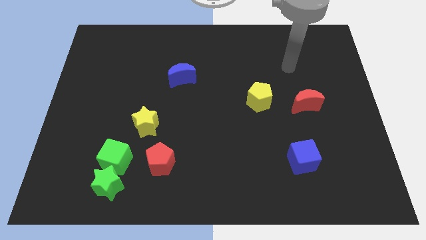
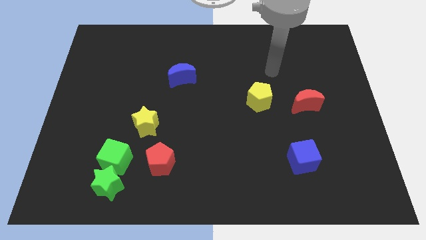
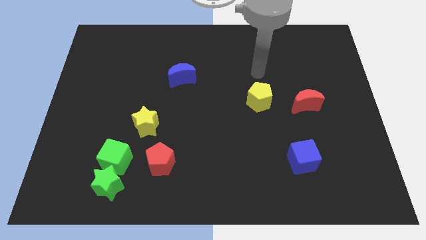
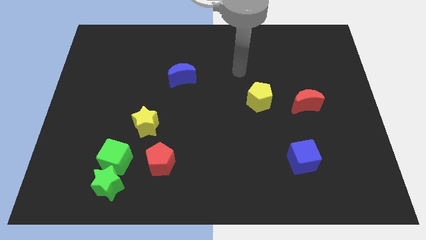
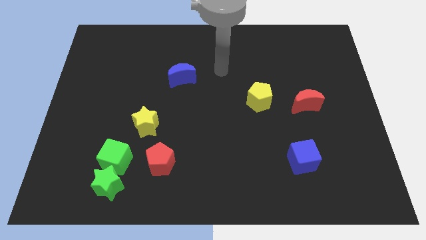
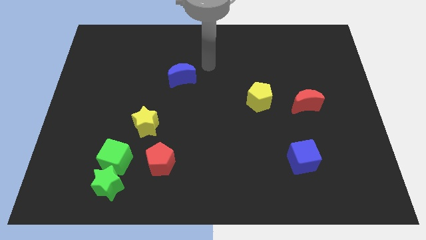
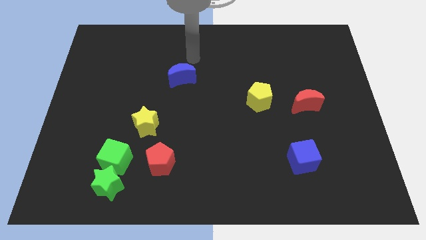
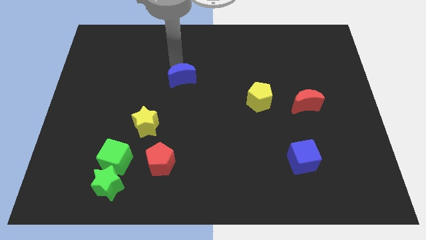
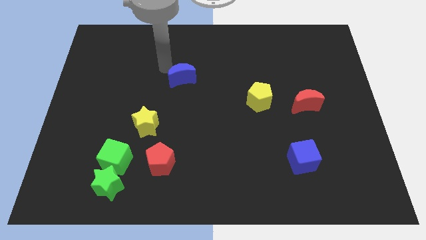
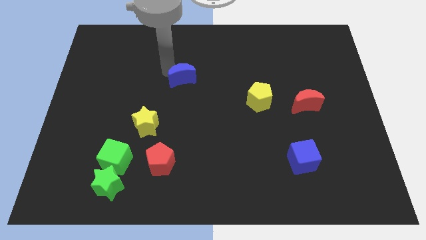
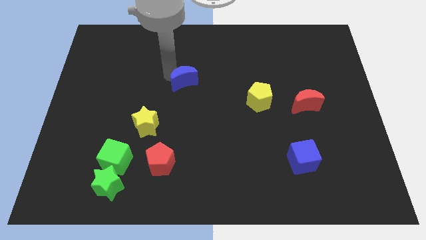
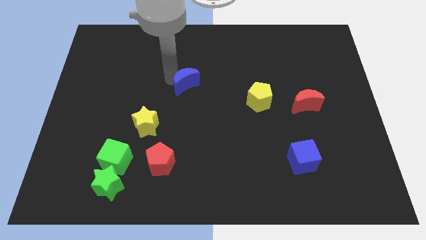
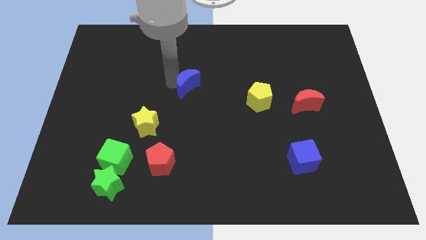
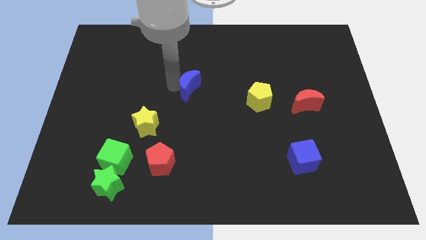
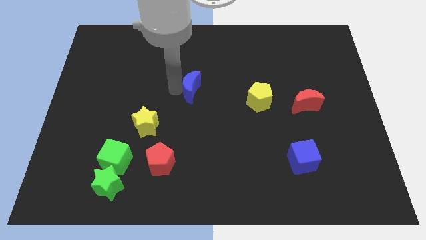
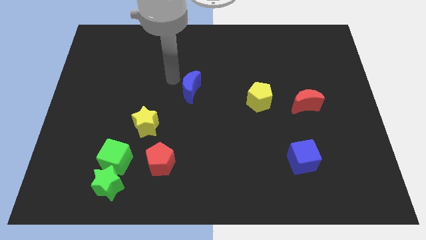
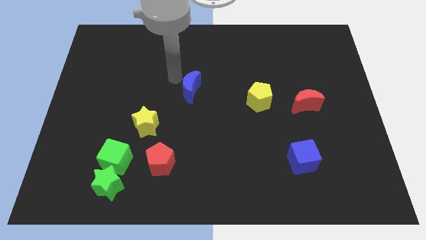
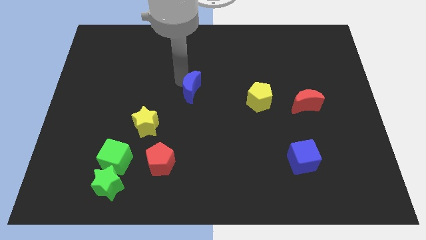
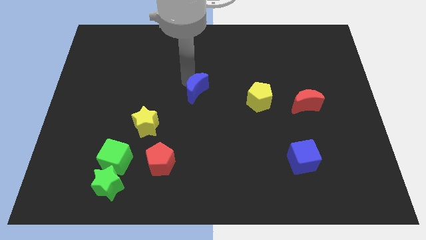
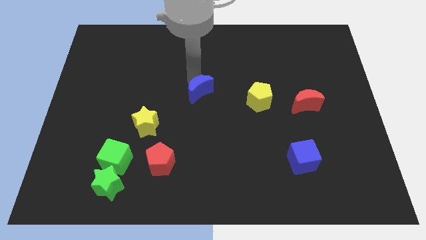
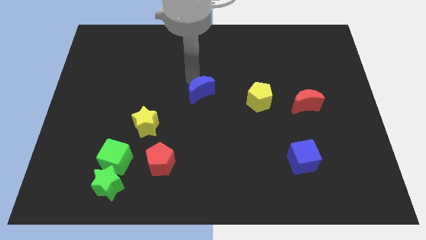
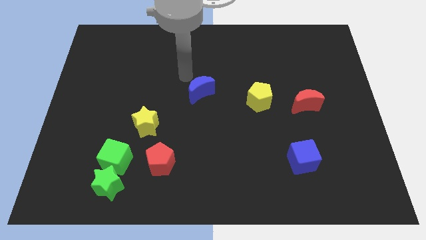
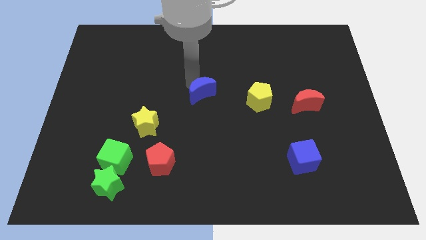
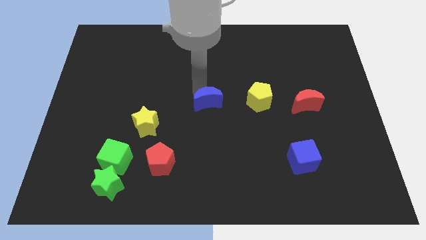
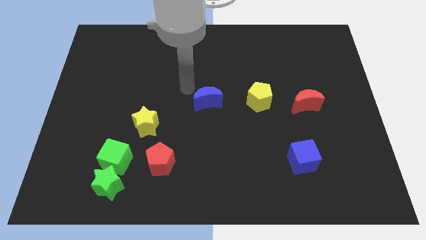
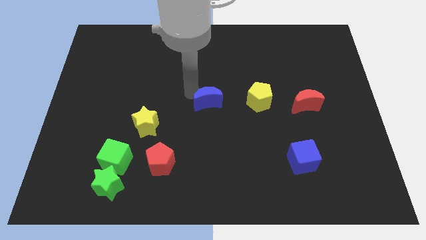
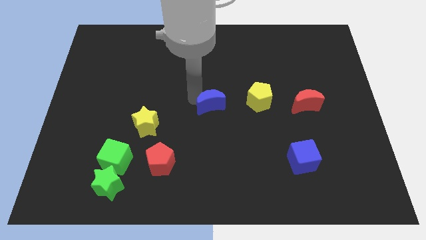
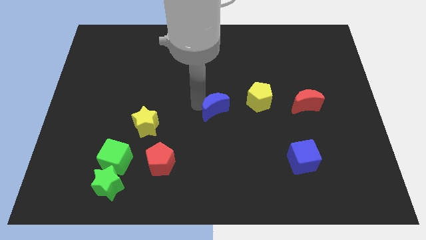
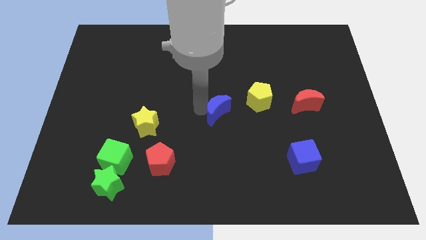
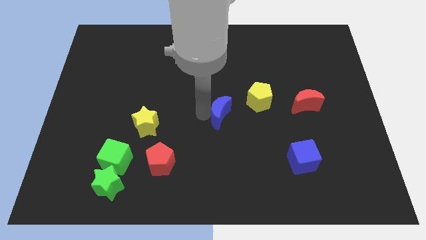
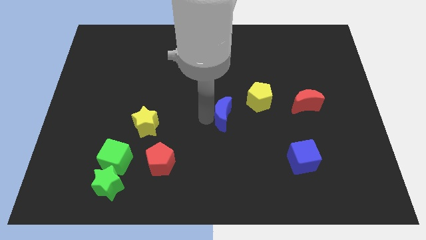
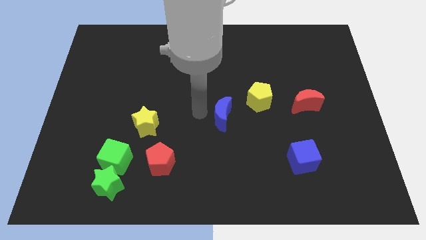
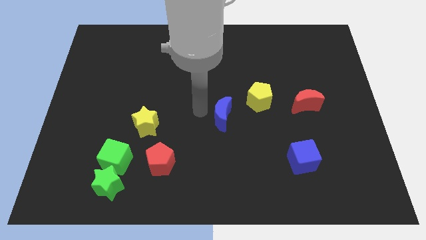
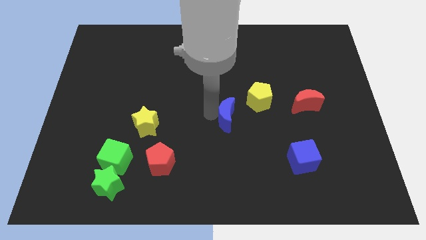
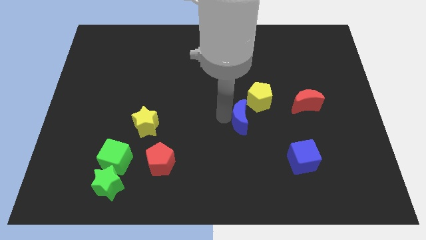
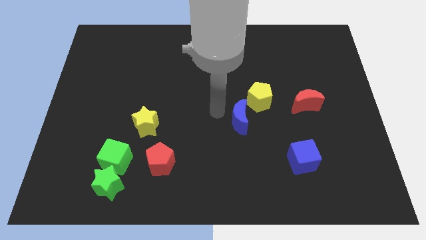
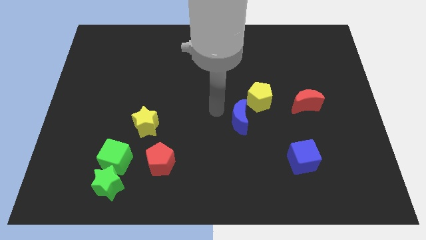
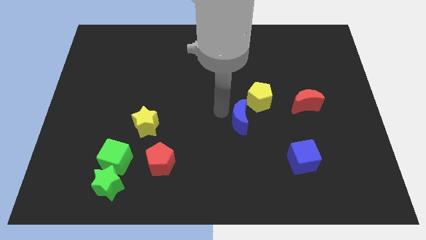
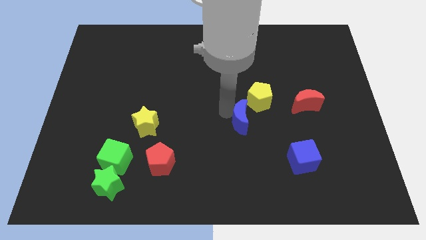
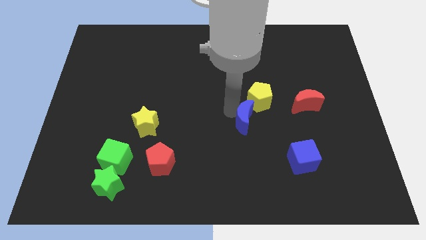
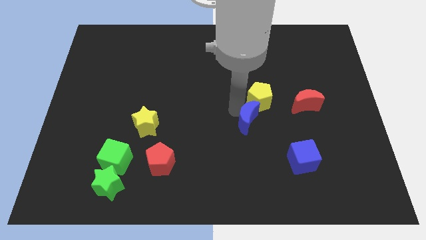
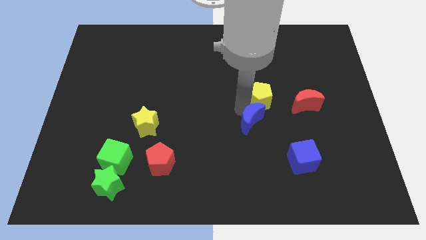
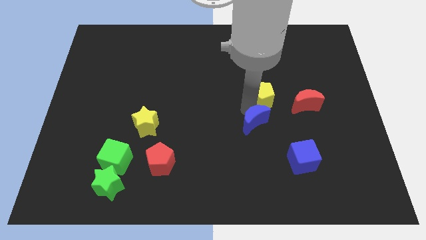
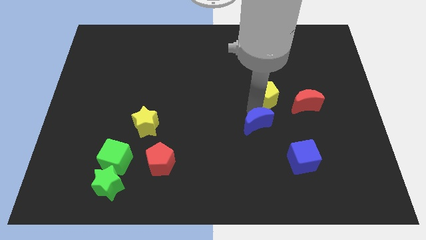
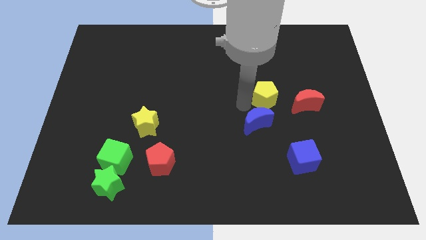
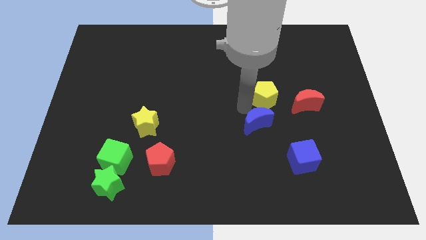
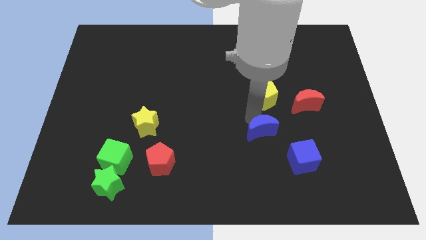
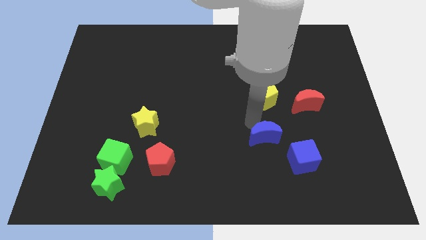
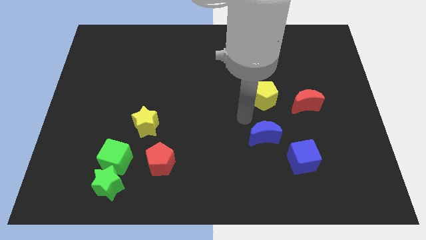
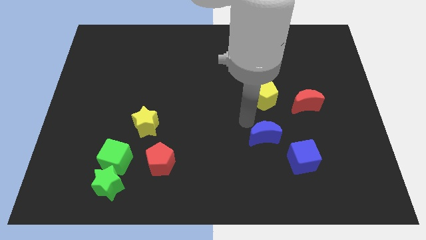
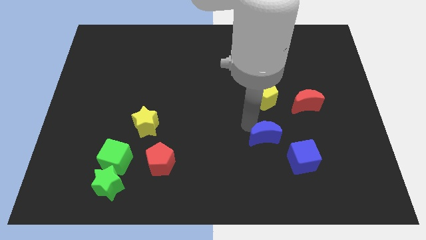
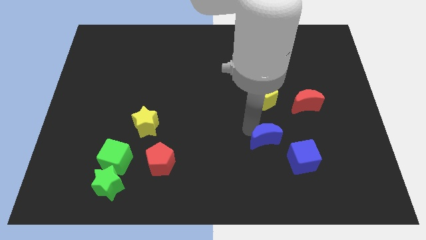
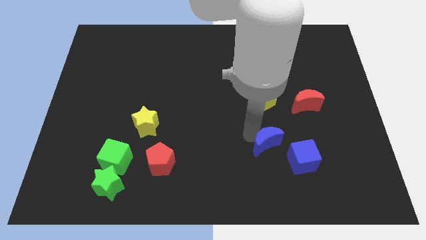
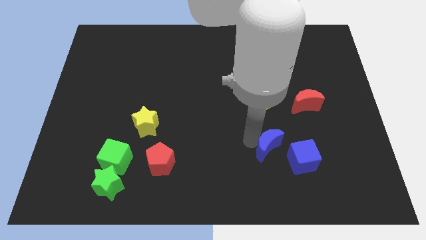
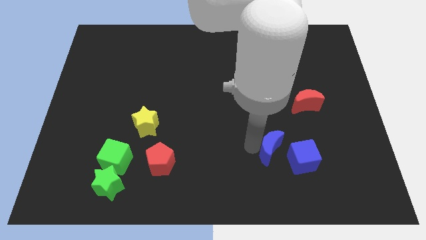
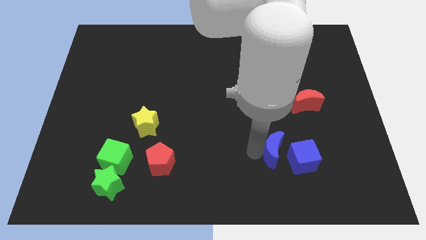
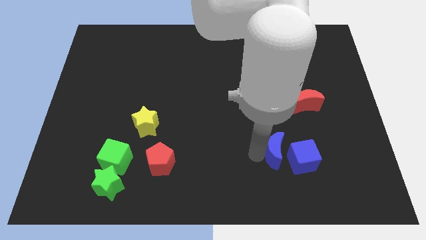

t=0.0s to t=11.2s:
push the blue moon next to the blue cube

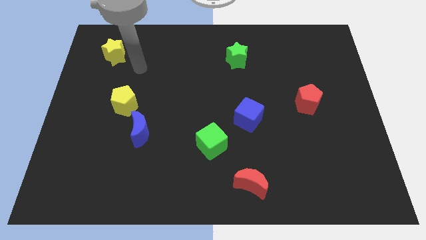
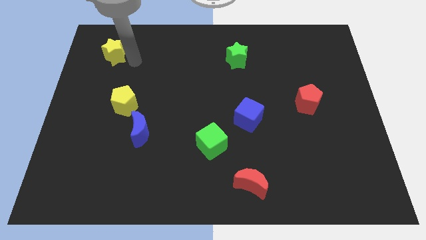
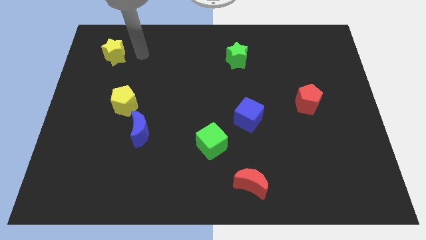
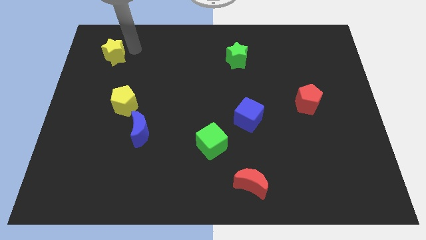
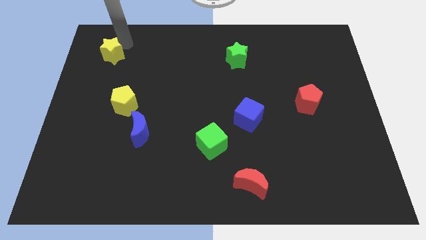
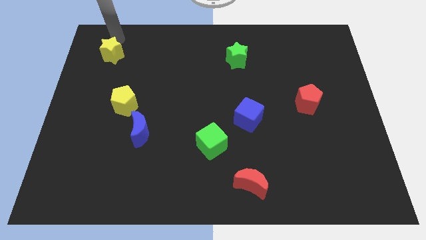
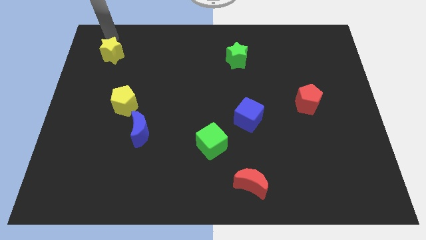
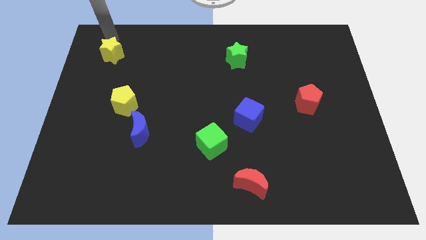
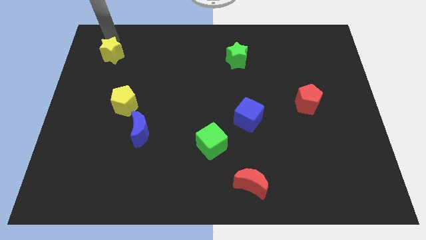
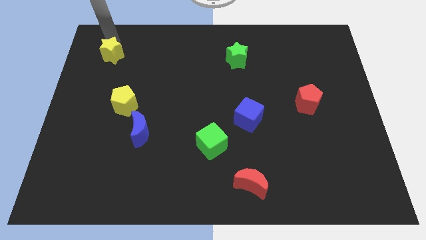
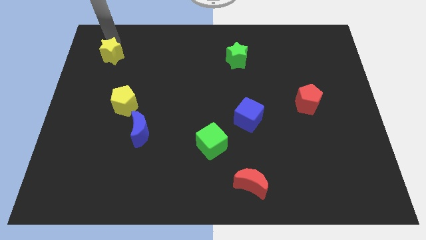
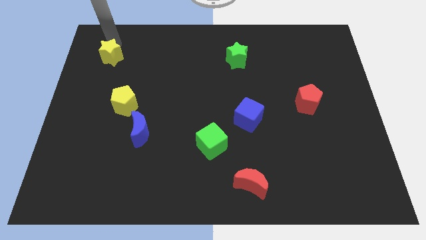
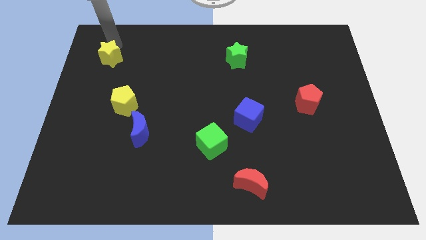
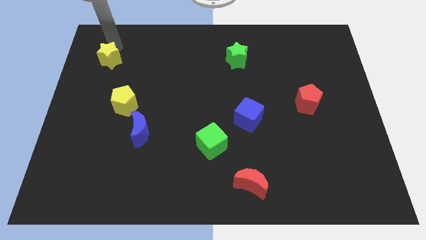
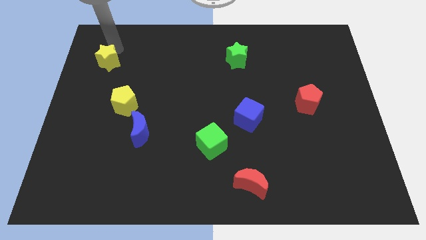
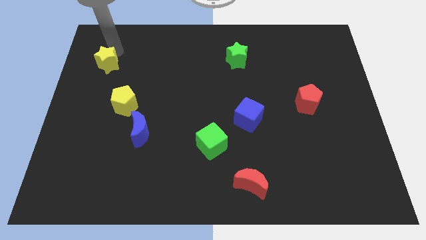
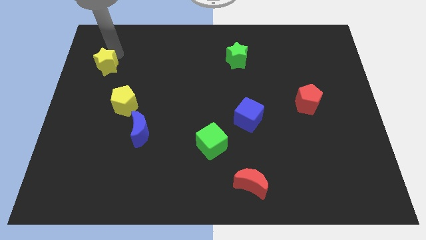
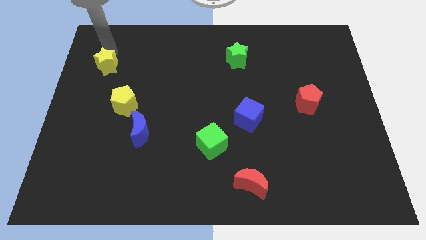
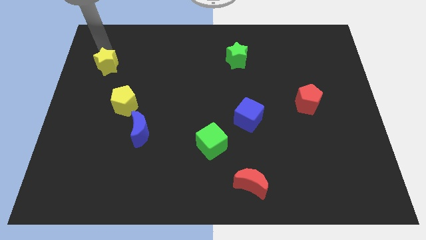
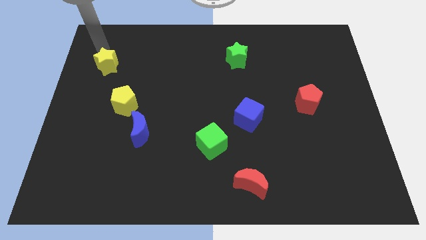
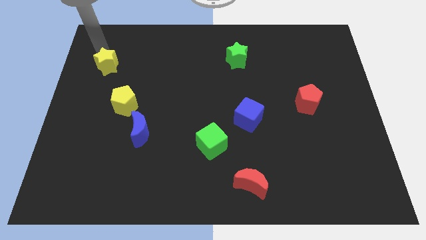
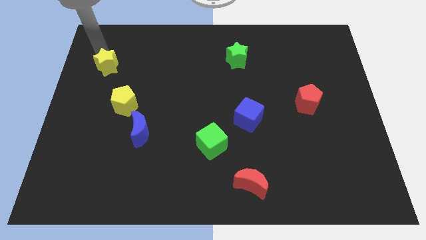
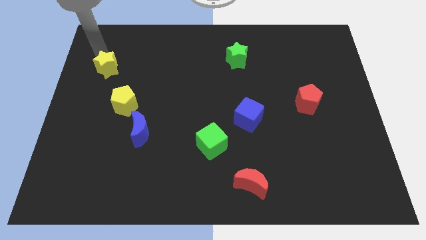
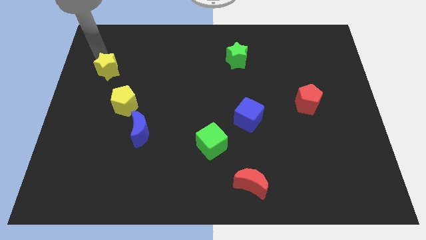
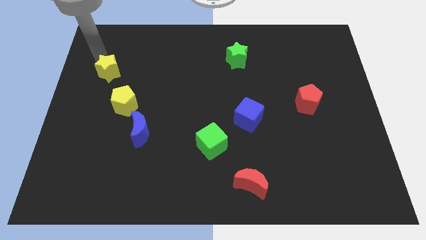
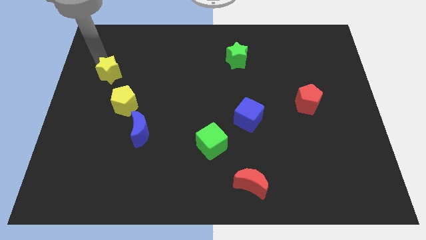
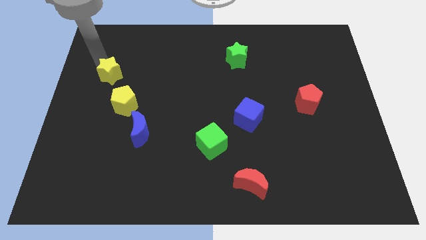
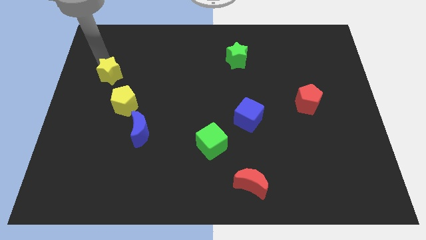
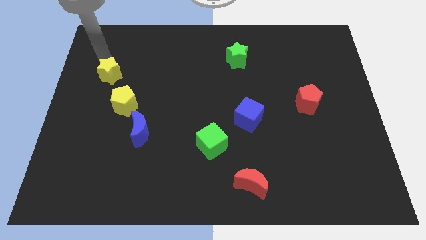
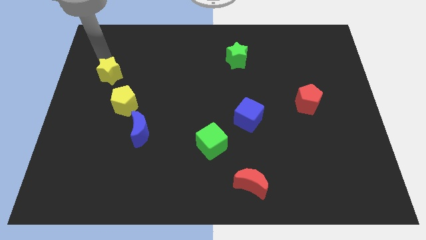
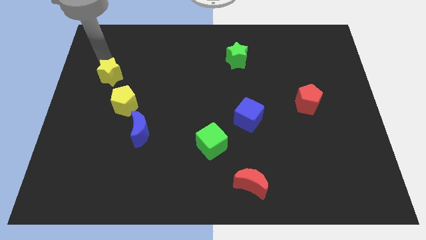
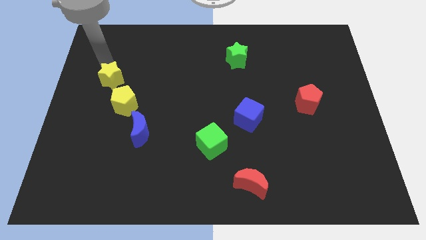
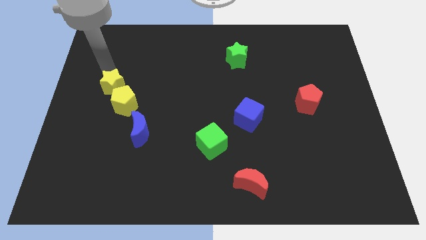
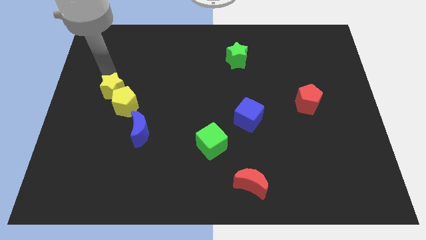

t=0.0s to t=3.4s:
slide the yellow star to the yellow pentagon
